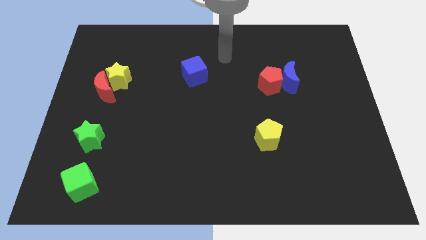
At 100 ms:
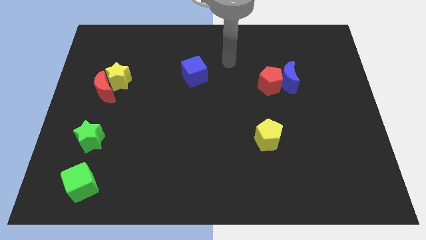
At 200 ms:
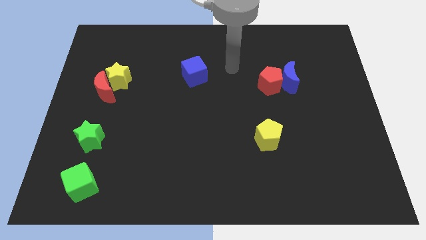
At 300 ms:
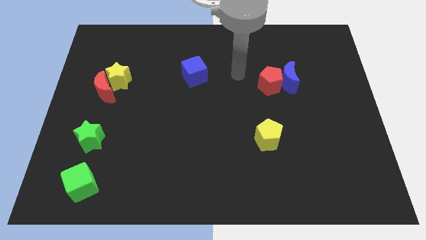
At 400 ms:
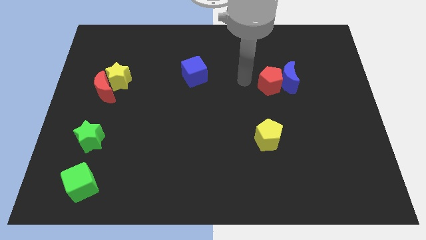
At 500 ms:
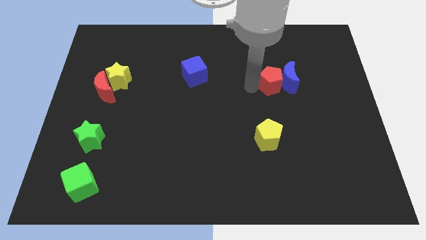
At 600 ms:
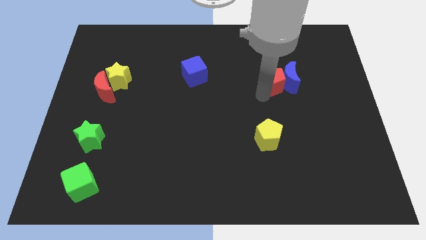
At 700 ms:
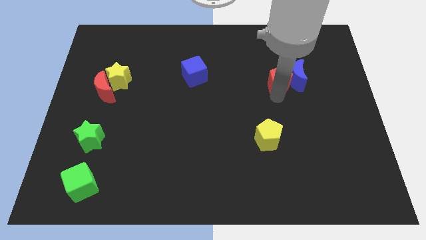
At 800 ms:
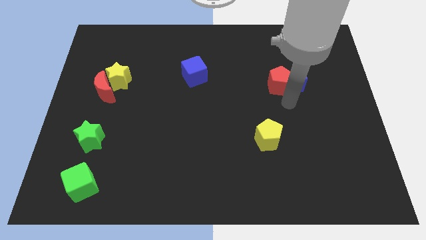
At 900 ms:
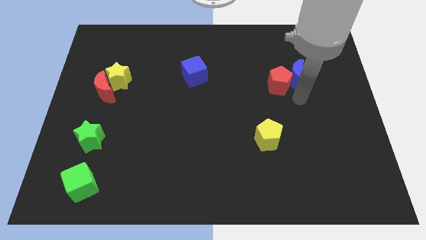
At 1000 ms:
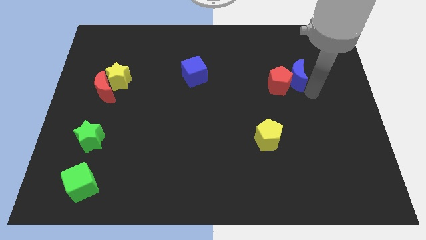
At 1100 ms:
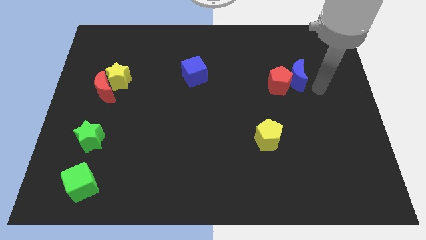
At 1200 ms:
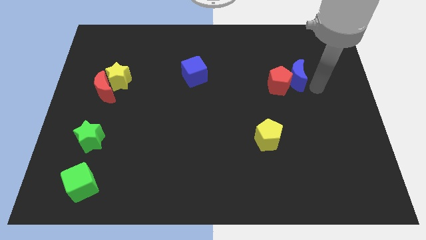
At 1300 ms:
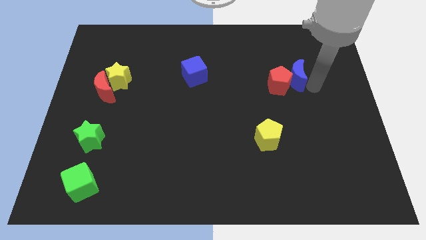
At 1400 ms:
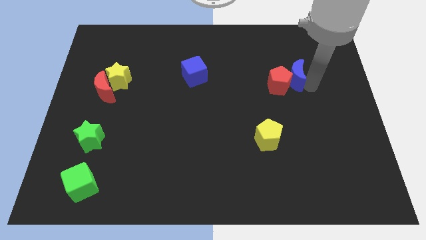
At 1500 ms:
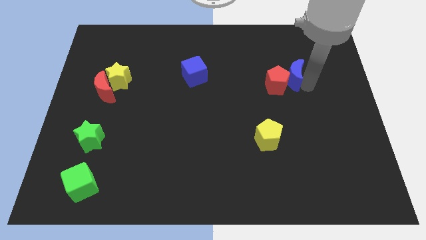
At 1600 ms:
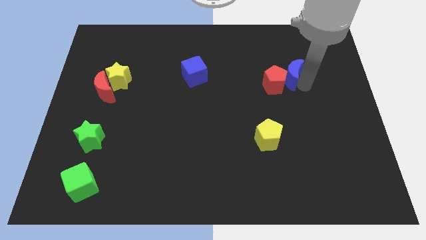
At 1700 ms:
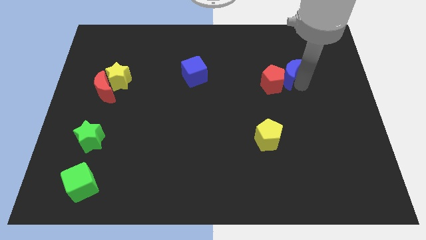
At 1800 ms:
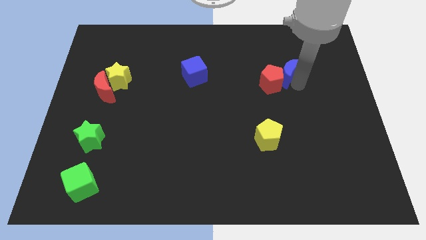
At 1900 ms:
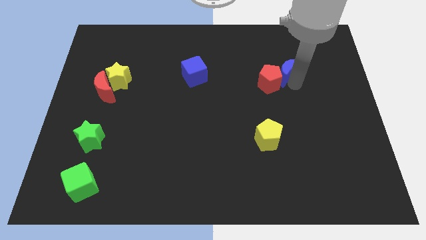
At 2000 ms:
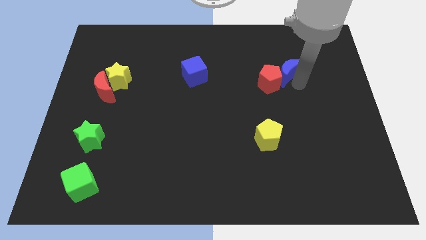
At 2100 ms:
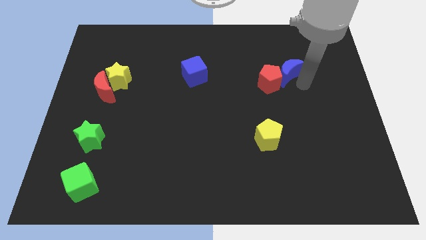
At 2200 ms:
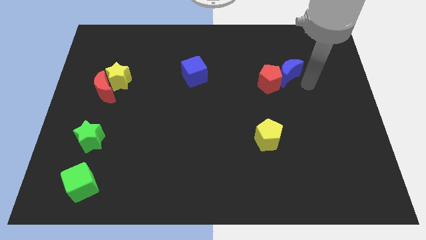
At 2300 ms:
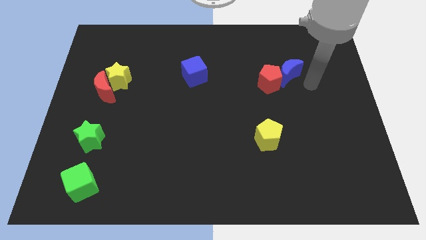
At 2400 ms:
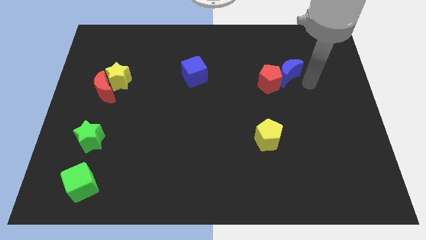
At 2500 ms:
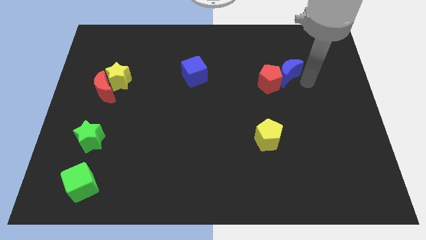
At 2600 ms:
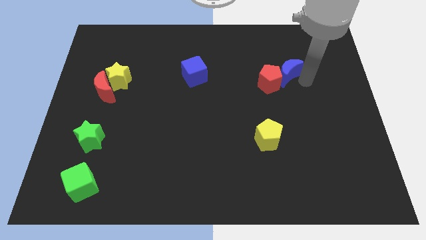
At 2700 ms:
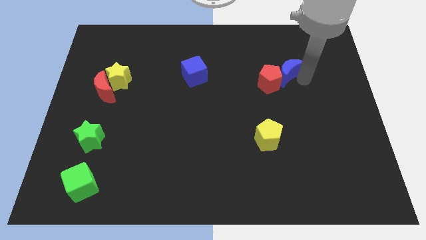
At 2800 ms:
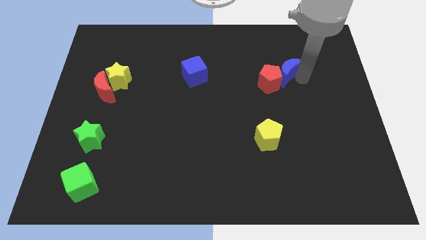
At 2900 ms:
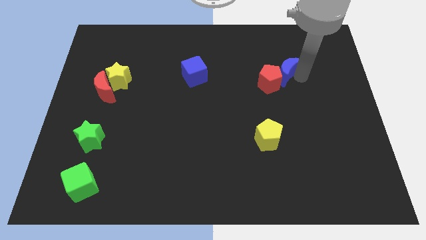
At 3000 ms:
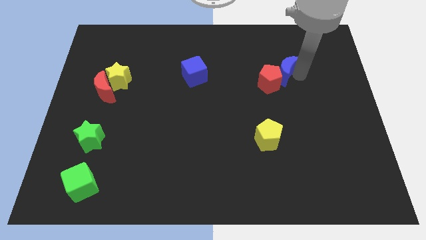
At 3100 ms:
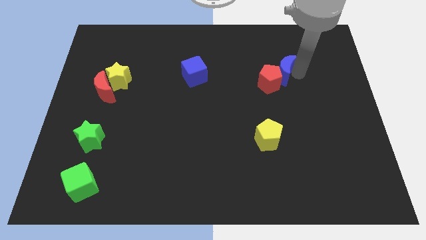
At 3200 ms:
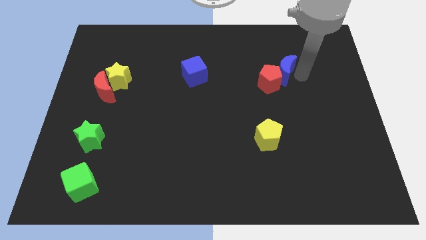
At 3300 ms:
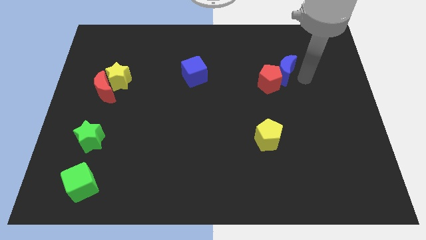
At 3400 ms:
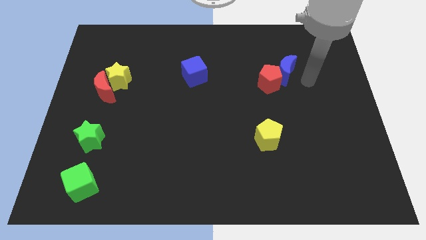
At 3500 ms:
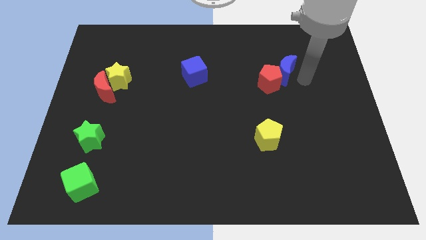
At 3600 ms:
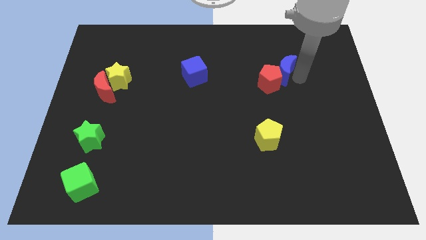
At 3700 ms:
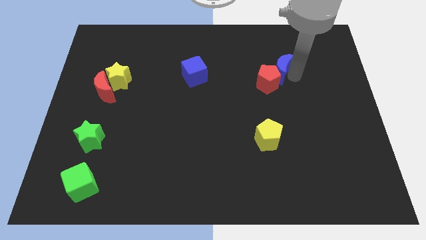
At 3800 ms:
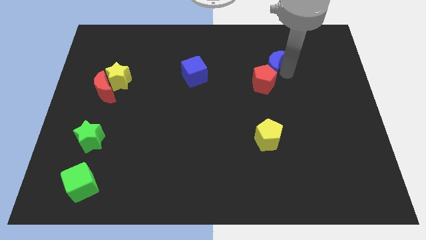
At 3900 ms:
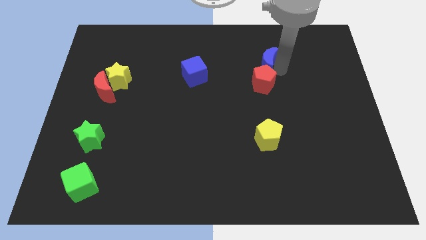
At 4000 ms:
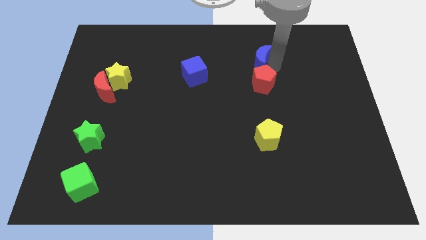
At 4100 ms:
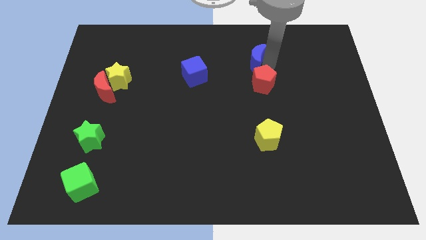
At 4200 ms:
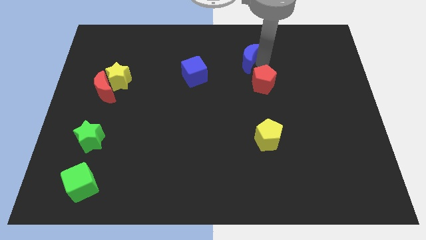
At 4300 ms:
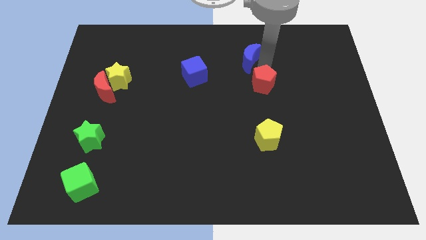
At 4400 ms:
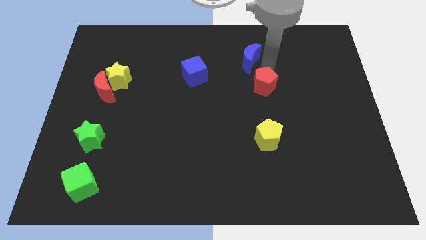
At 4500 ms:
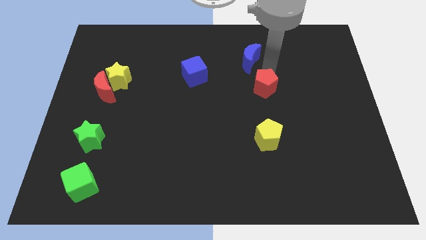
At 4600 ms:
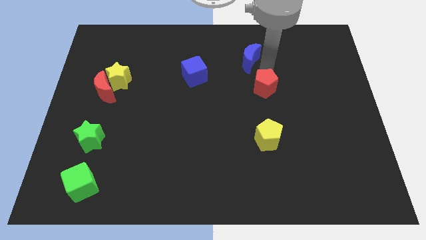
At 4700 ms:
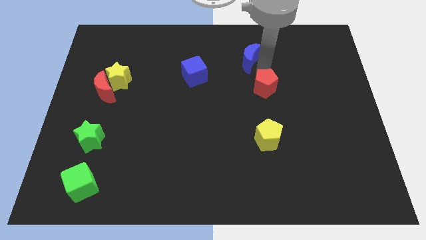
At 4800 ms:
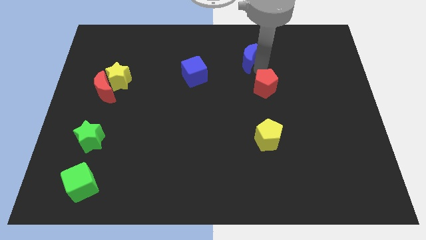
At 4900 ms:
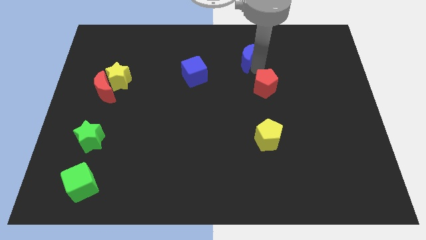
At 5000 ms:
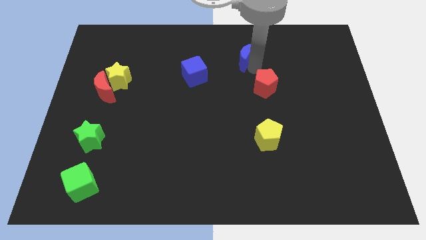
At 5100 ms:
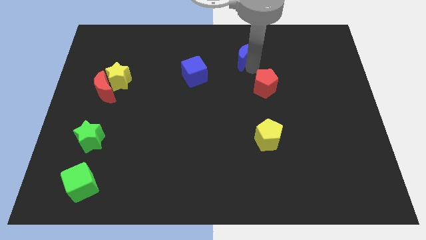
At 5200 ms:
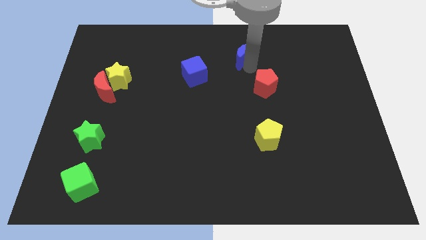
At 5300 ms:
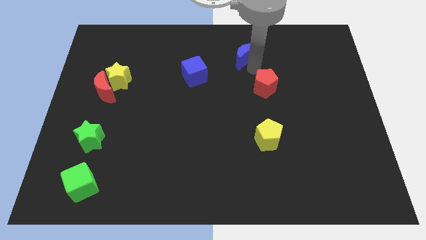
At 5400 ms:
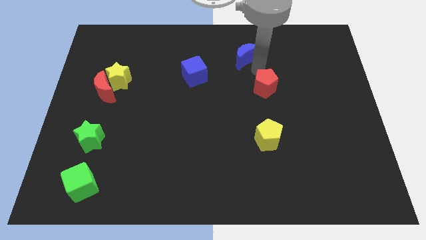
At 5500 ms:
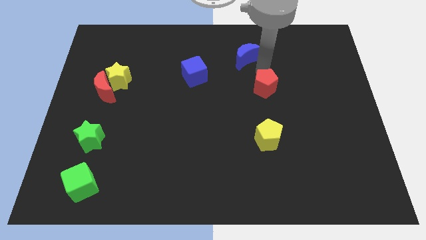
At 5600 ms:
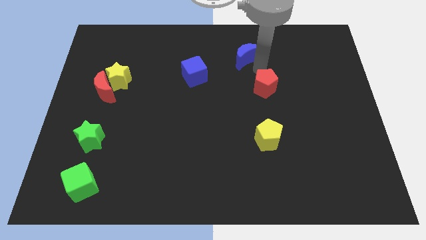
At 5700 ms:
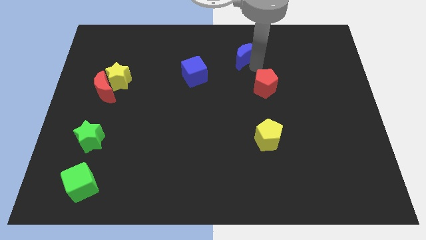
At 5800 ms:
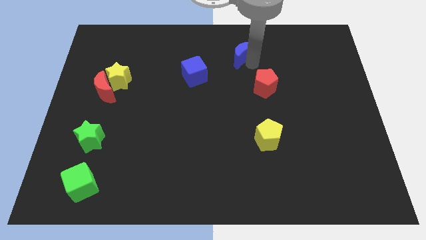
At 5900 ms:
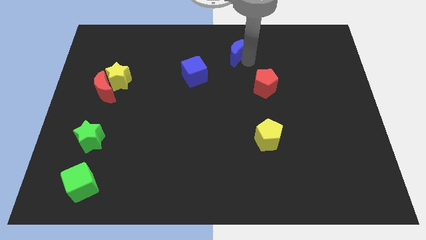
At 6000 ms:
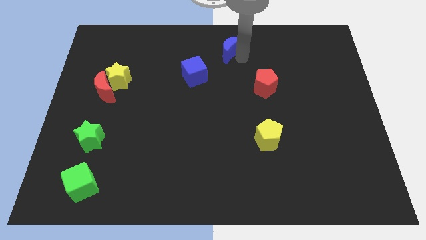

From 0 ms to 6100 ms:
move the blue moon to the top

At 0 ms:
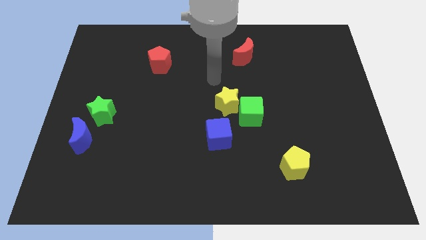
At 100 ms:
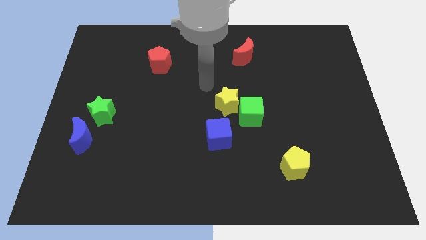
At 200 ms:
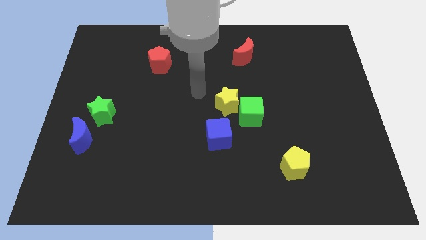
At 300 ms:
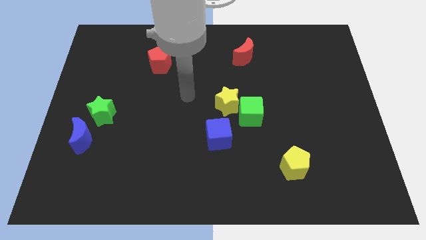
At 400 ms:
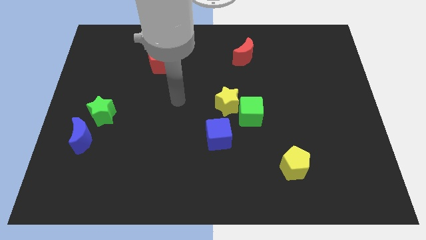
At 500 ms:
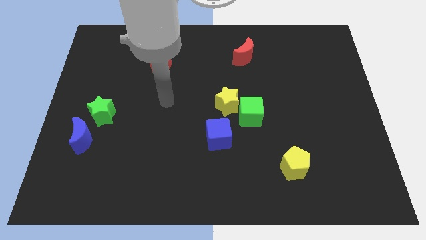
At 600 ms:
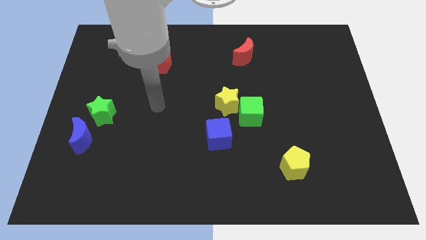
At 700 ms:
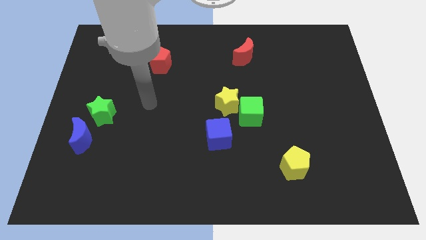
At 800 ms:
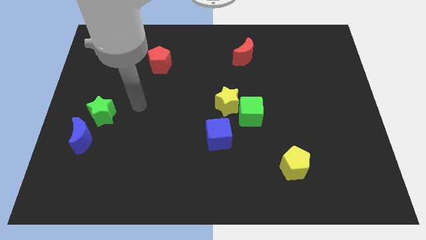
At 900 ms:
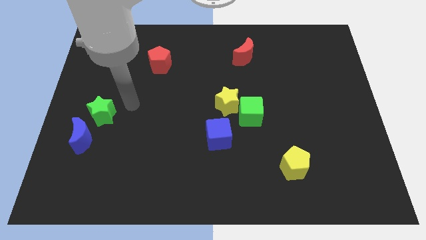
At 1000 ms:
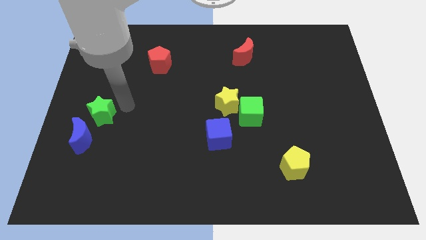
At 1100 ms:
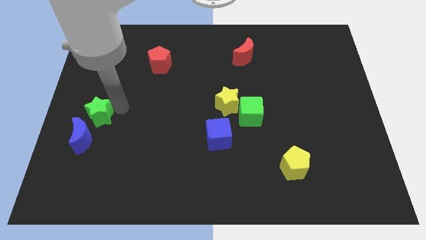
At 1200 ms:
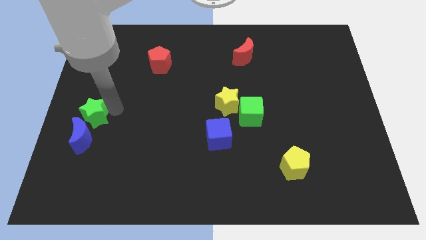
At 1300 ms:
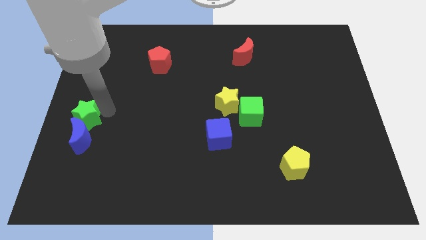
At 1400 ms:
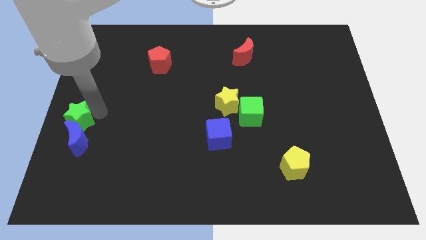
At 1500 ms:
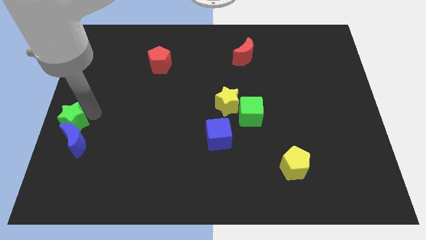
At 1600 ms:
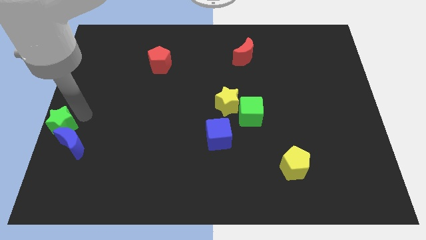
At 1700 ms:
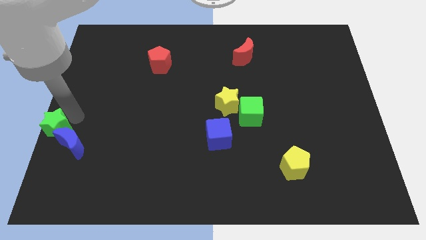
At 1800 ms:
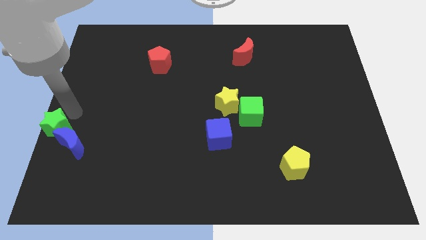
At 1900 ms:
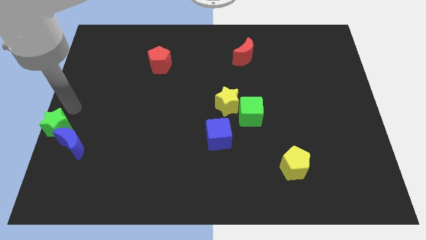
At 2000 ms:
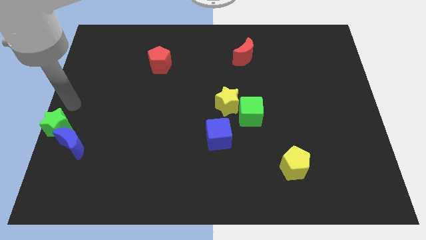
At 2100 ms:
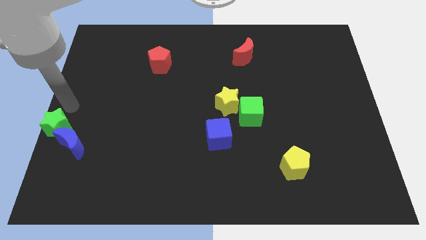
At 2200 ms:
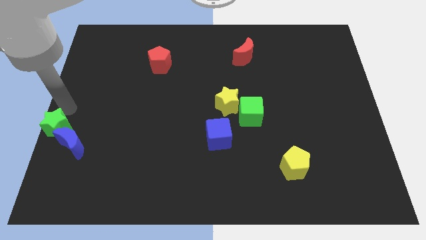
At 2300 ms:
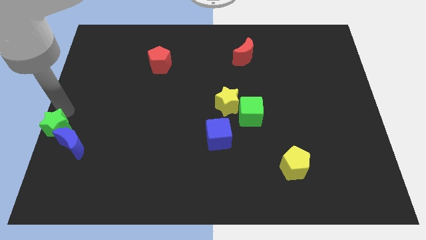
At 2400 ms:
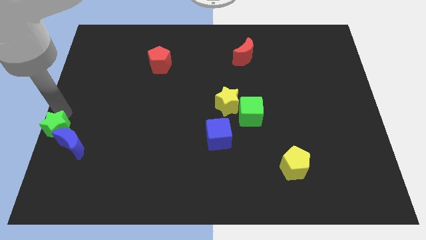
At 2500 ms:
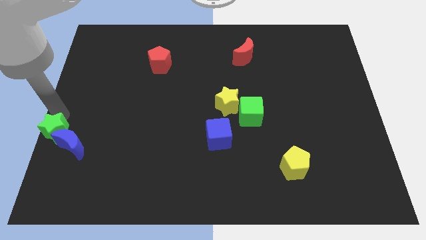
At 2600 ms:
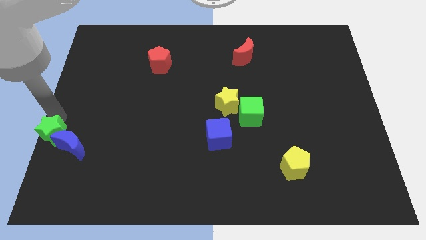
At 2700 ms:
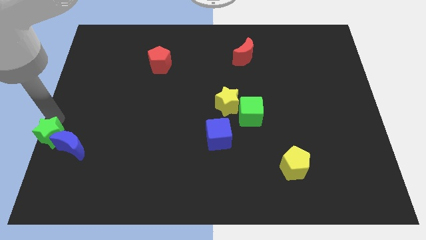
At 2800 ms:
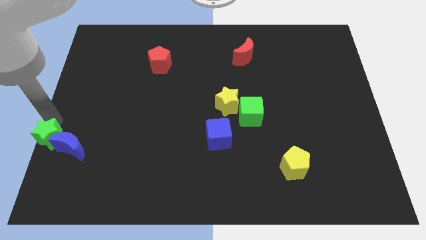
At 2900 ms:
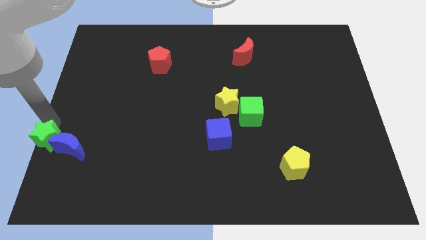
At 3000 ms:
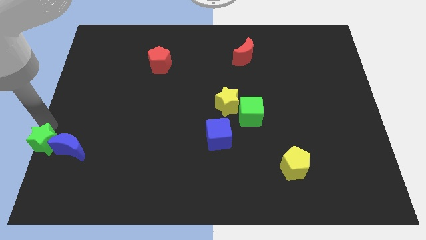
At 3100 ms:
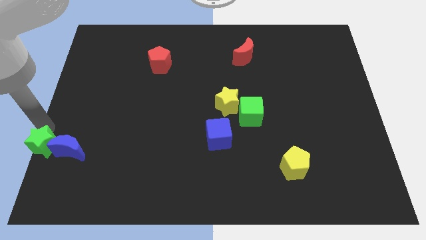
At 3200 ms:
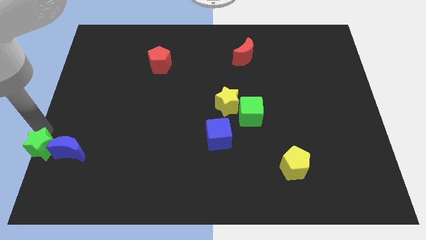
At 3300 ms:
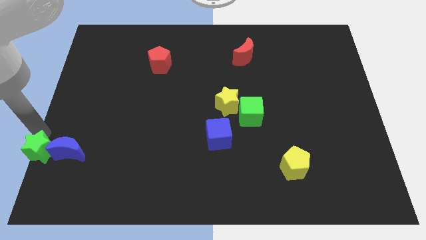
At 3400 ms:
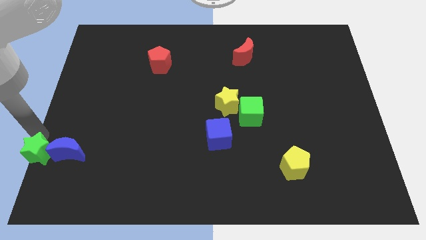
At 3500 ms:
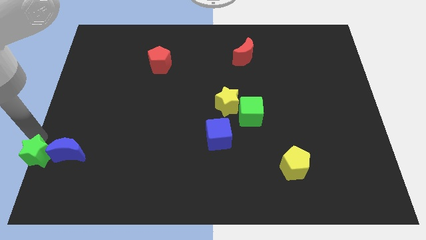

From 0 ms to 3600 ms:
push the green star to the bottom left of the board
